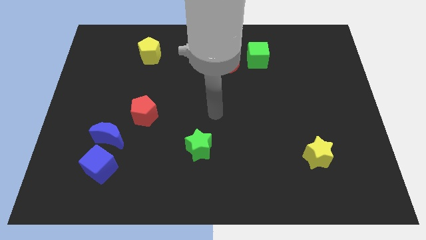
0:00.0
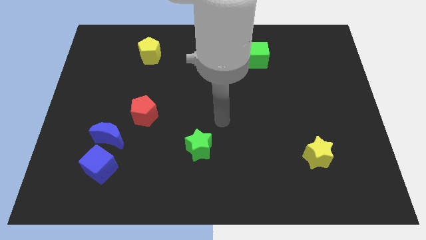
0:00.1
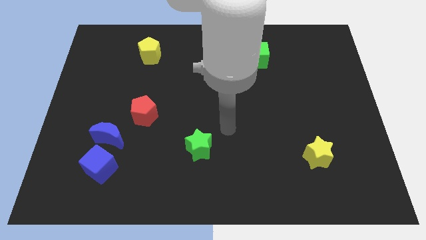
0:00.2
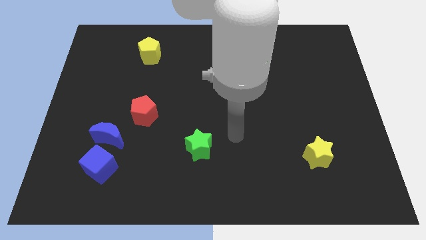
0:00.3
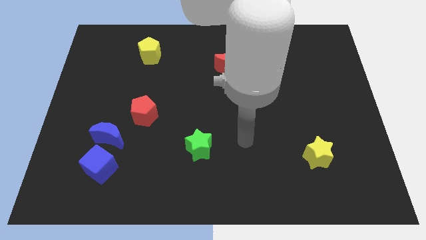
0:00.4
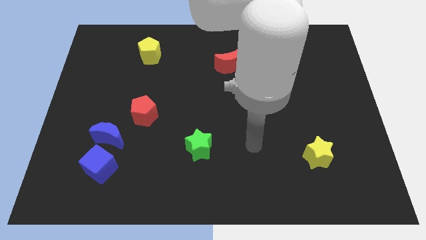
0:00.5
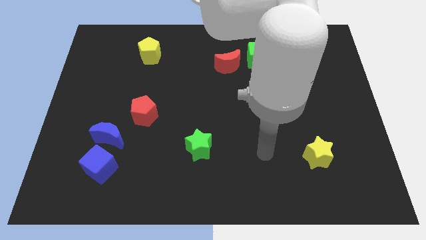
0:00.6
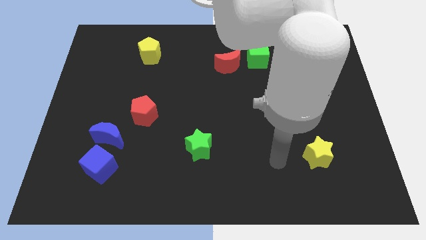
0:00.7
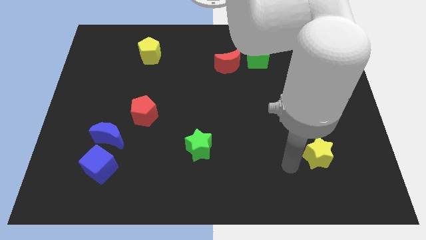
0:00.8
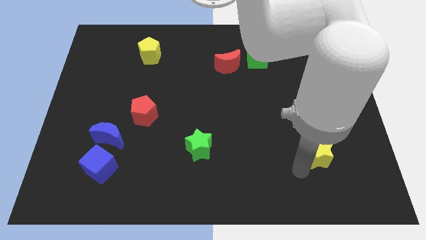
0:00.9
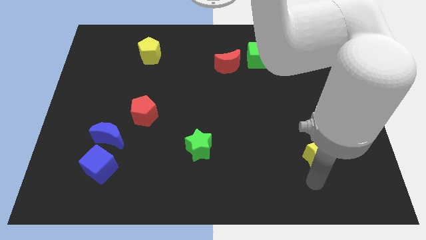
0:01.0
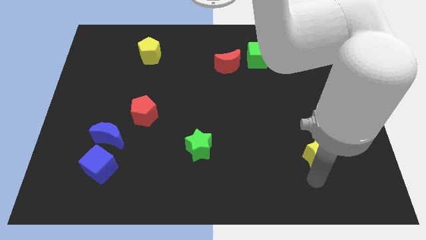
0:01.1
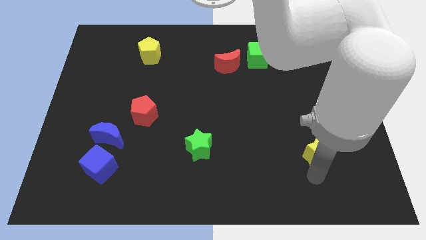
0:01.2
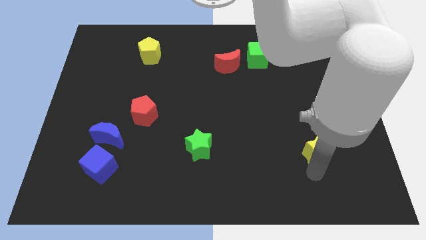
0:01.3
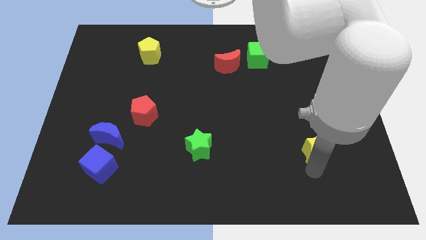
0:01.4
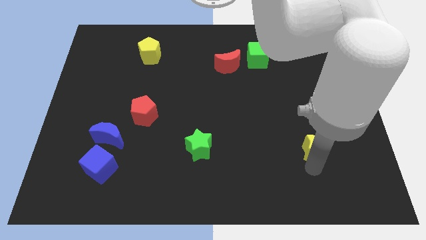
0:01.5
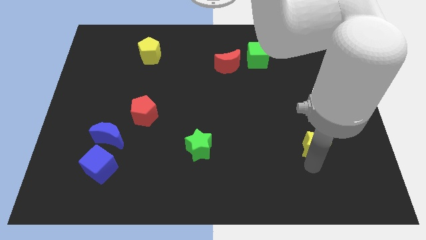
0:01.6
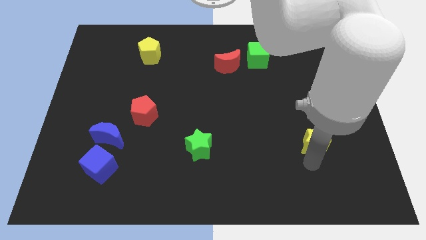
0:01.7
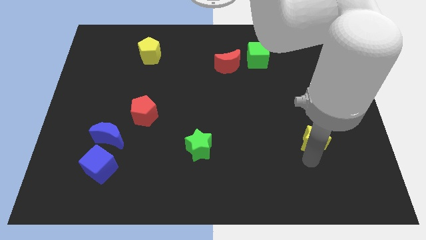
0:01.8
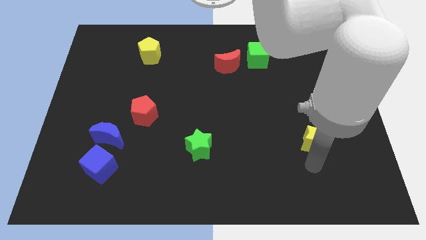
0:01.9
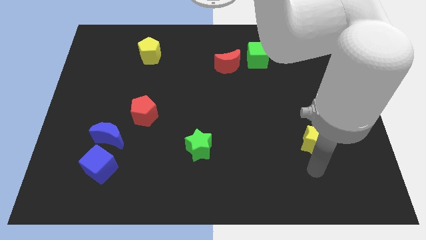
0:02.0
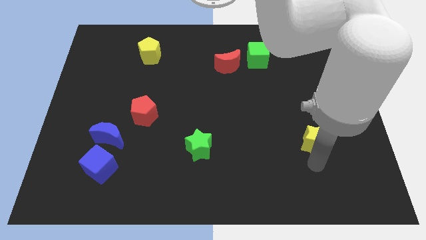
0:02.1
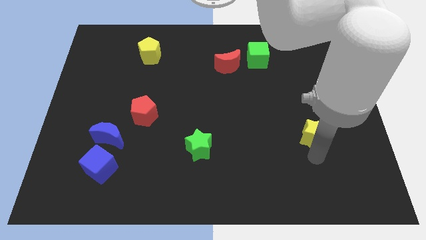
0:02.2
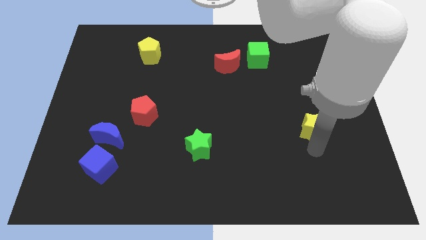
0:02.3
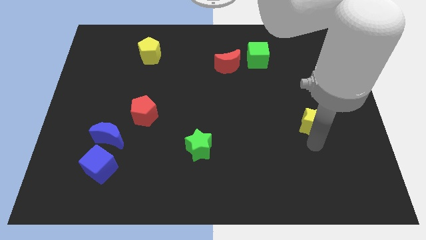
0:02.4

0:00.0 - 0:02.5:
push the yellow star upwards a little bit

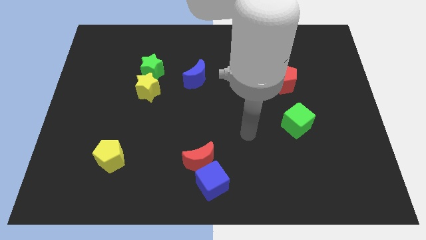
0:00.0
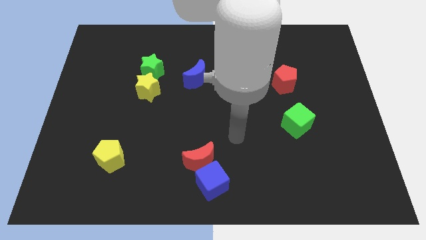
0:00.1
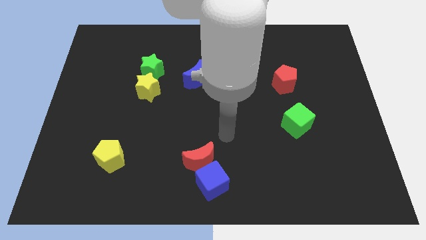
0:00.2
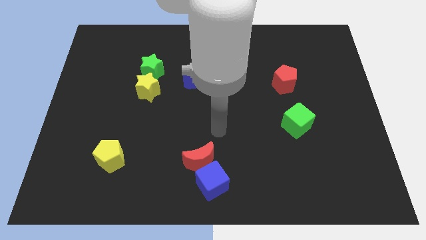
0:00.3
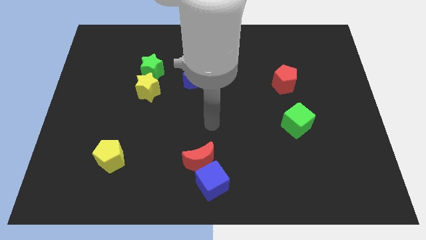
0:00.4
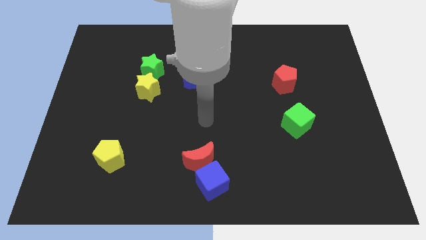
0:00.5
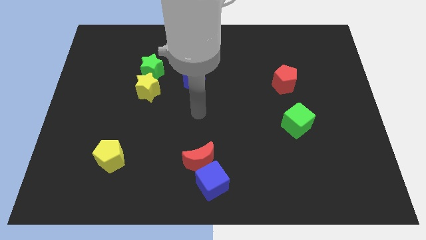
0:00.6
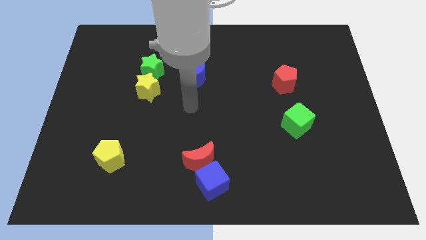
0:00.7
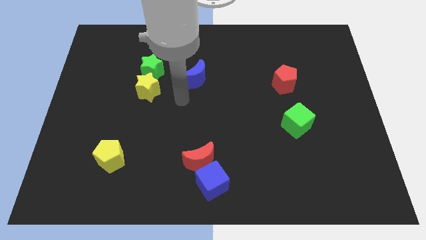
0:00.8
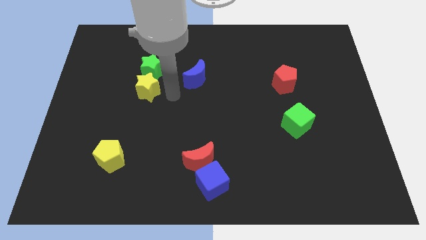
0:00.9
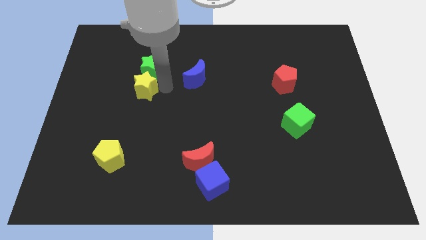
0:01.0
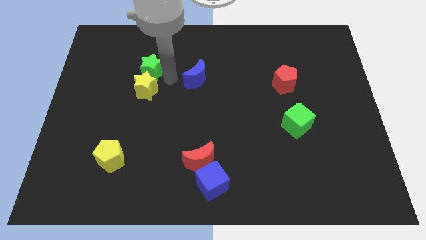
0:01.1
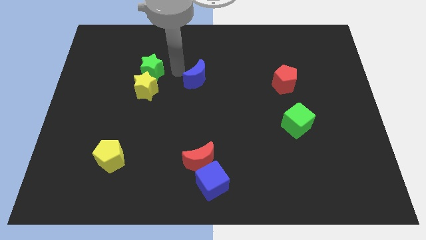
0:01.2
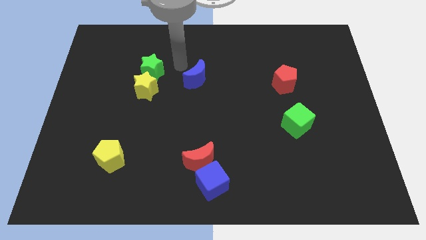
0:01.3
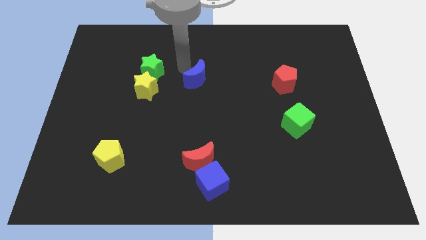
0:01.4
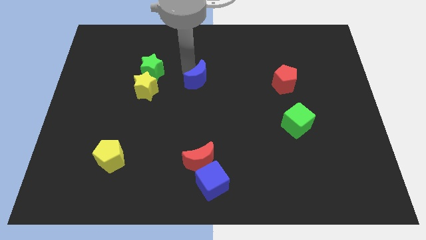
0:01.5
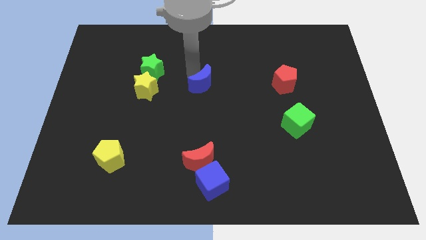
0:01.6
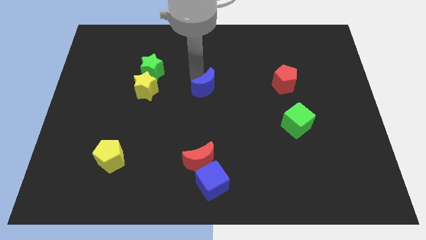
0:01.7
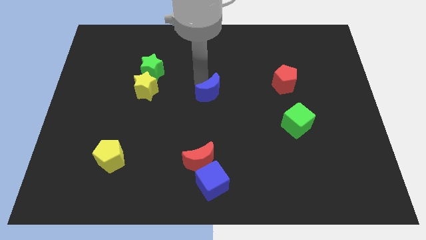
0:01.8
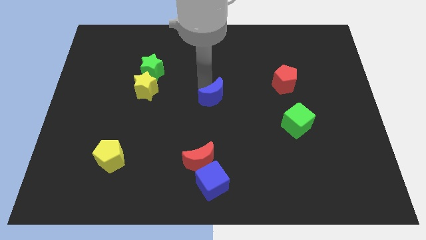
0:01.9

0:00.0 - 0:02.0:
slide the blue moon downwards and then right somewhat

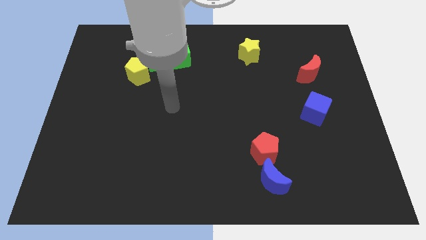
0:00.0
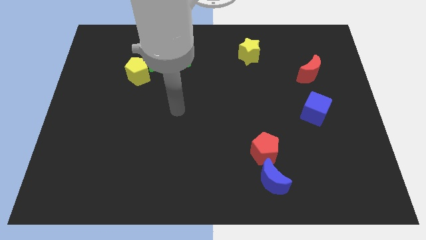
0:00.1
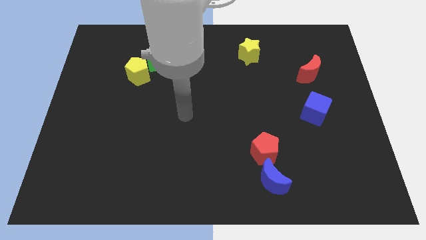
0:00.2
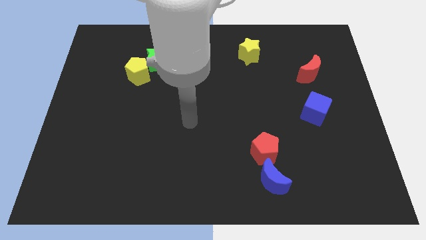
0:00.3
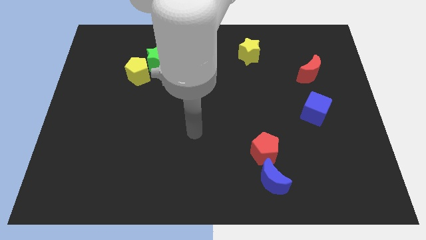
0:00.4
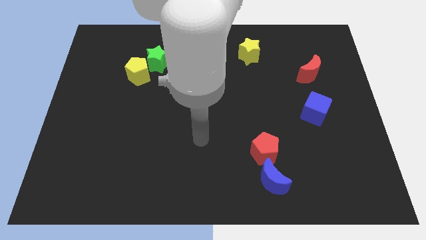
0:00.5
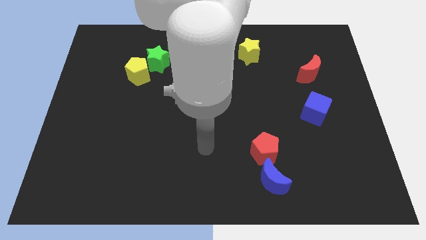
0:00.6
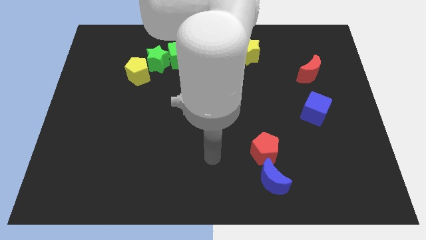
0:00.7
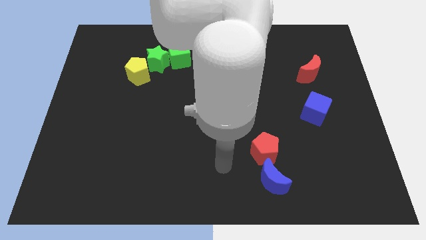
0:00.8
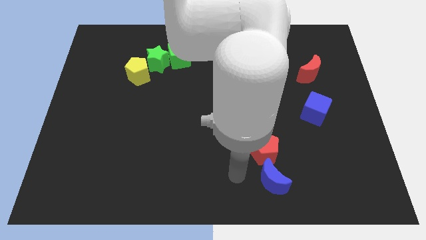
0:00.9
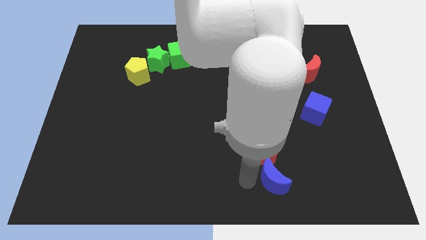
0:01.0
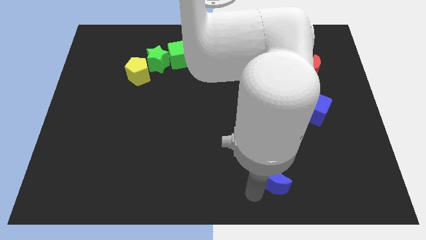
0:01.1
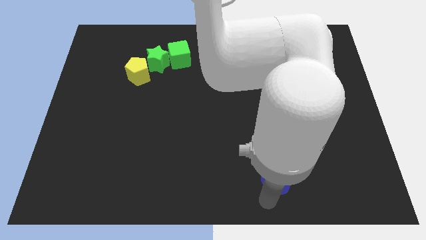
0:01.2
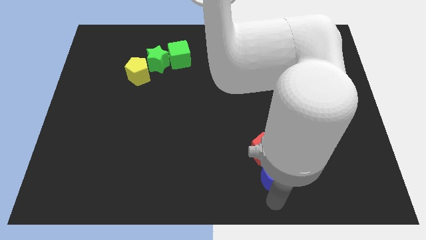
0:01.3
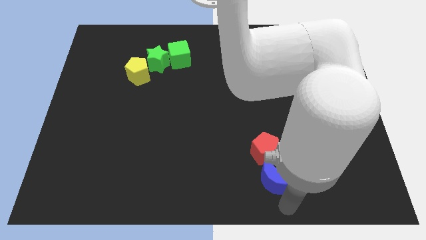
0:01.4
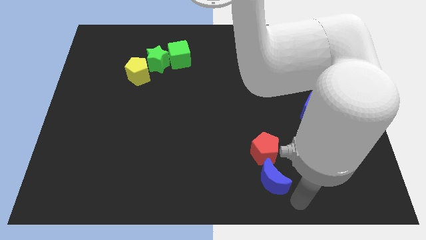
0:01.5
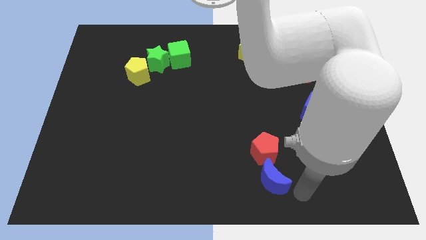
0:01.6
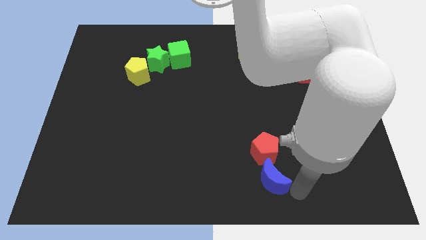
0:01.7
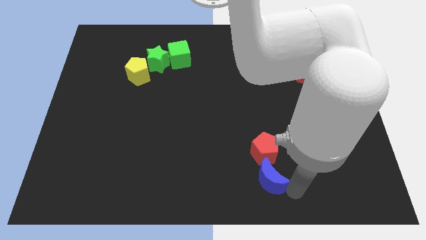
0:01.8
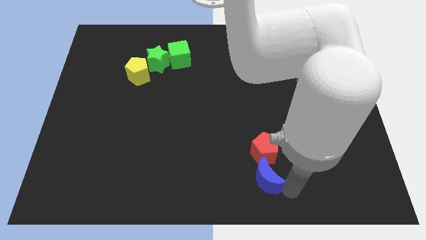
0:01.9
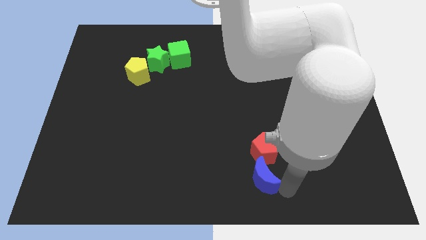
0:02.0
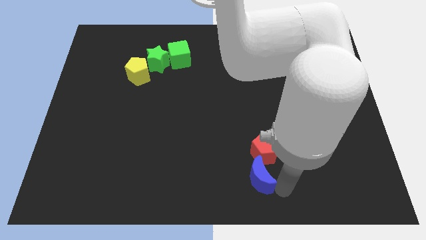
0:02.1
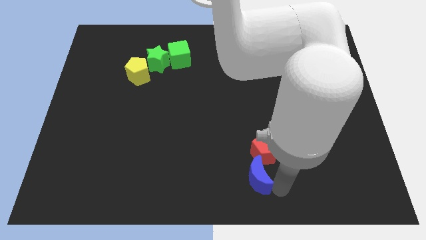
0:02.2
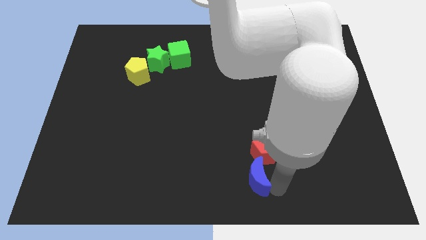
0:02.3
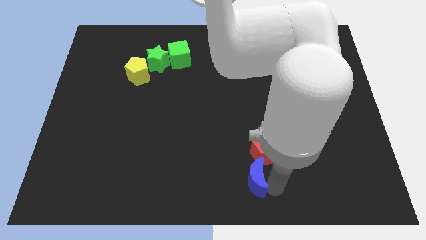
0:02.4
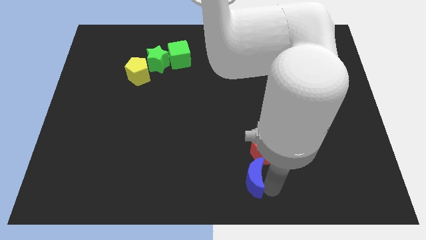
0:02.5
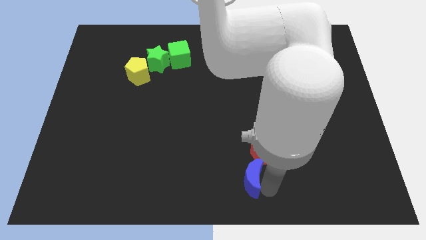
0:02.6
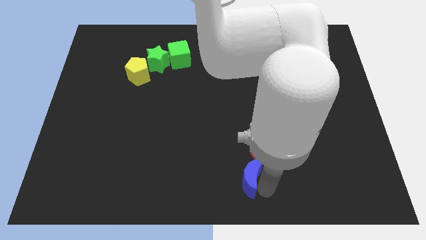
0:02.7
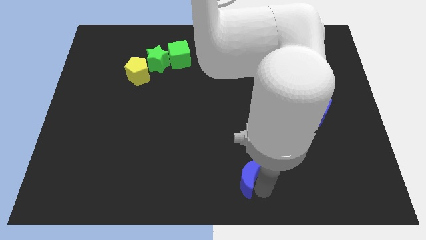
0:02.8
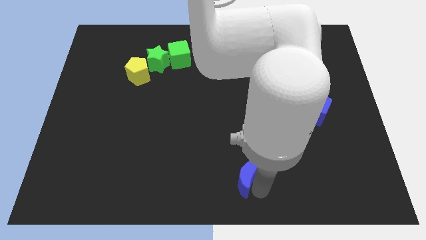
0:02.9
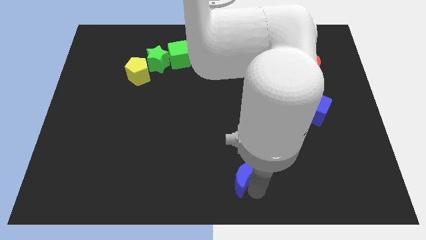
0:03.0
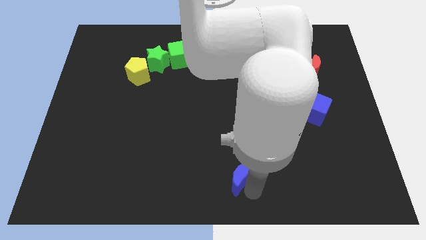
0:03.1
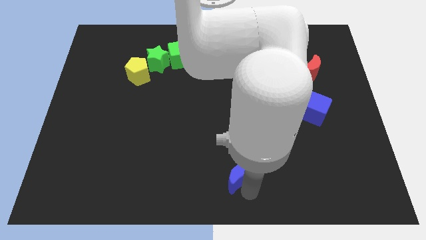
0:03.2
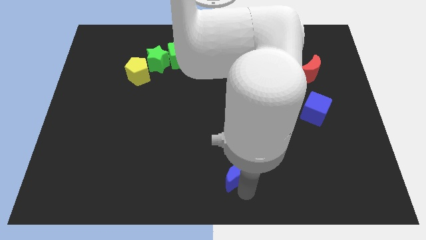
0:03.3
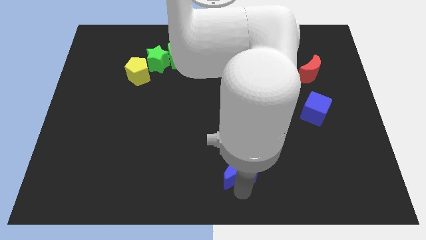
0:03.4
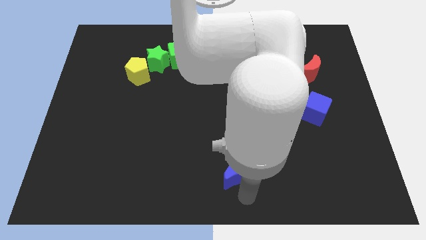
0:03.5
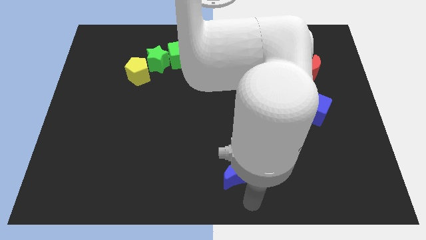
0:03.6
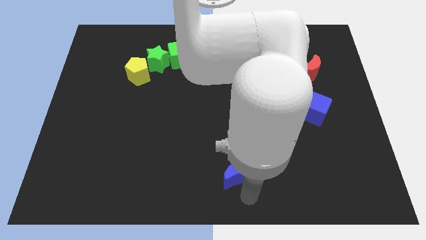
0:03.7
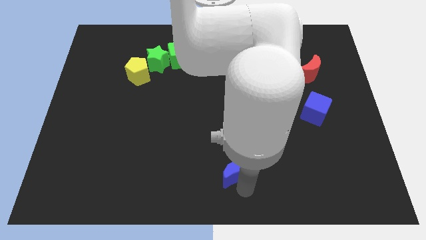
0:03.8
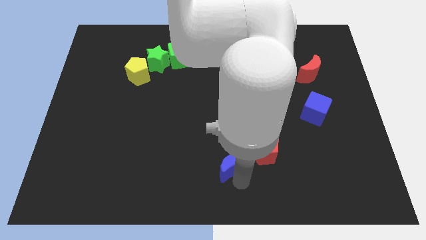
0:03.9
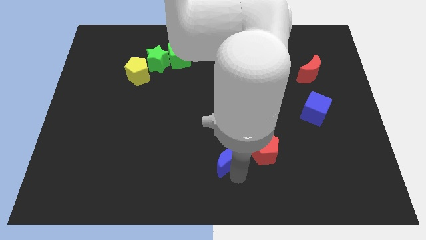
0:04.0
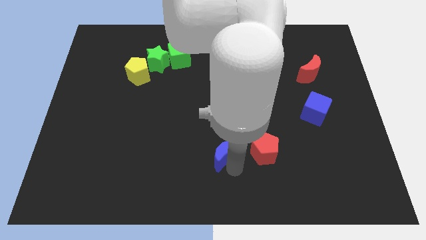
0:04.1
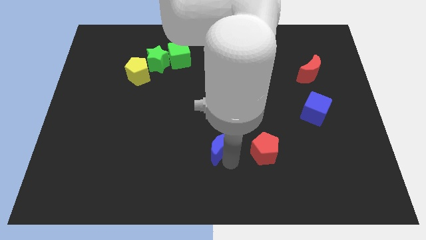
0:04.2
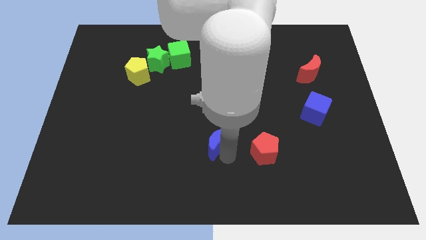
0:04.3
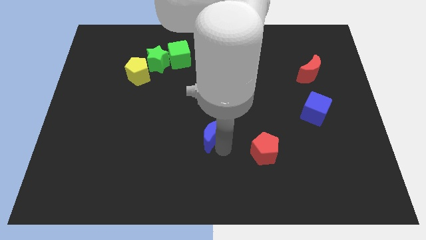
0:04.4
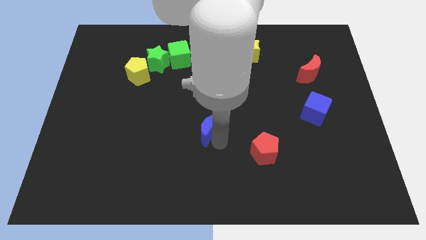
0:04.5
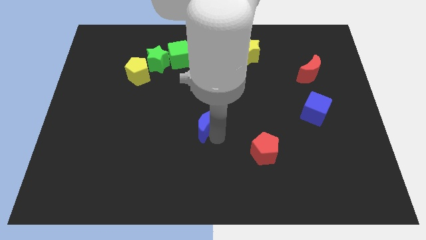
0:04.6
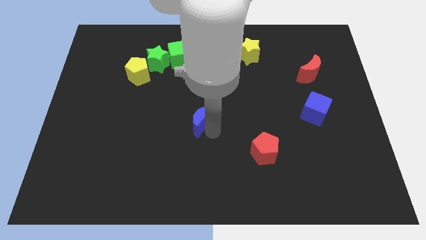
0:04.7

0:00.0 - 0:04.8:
move the blue moon diagonally upwards and left
